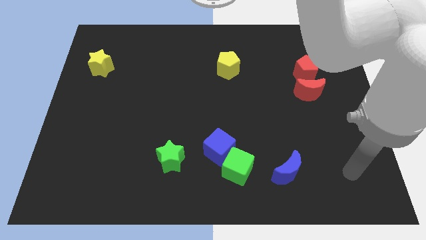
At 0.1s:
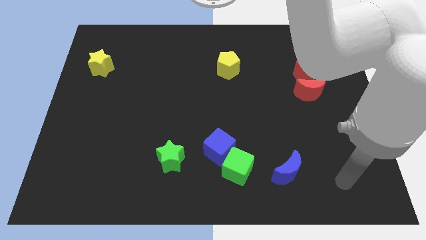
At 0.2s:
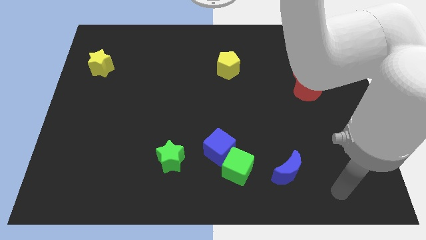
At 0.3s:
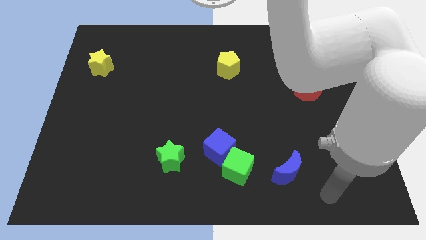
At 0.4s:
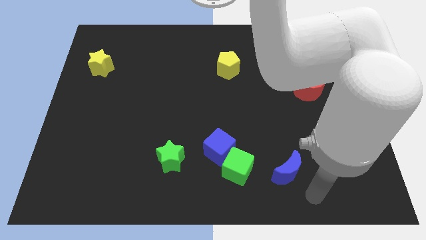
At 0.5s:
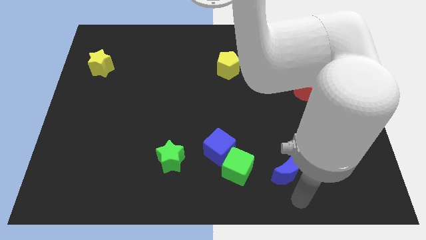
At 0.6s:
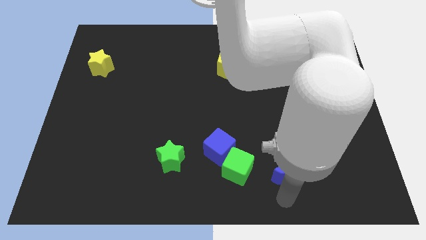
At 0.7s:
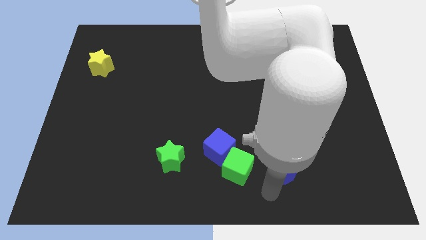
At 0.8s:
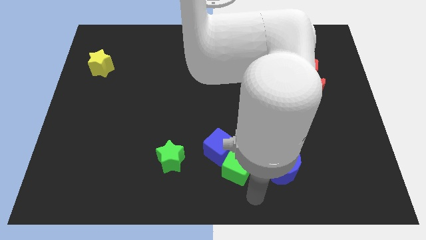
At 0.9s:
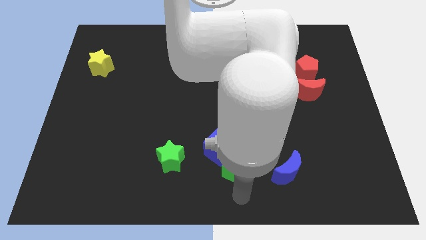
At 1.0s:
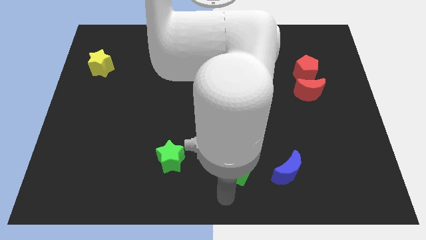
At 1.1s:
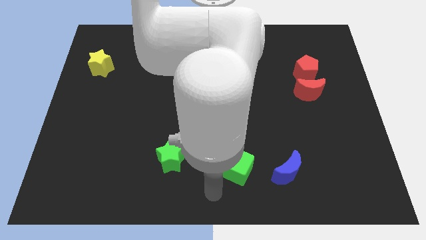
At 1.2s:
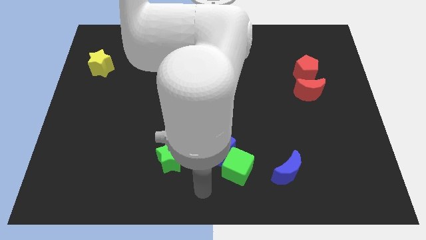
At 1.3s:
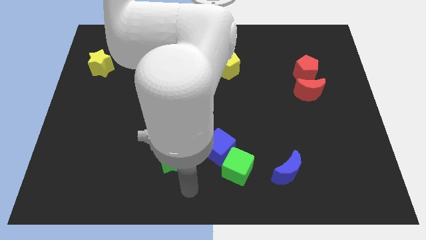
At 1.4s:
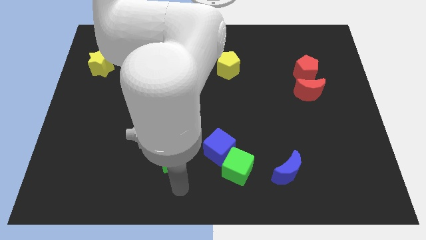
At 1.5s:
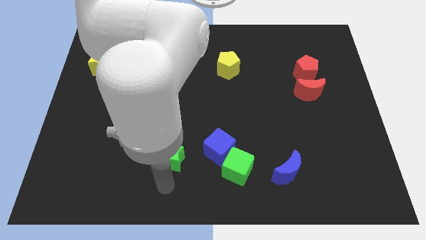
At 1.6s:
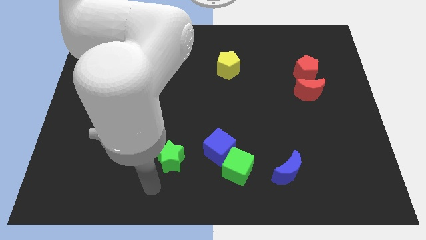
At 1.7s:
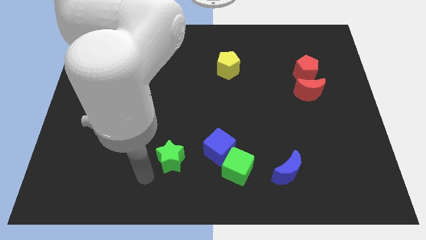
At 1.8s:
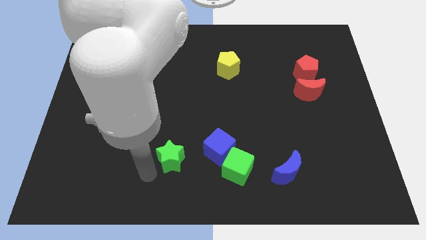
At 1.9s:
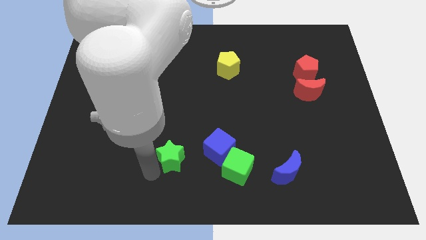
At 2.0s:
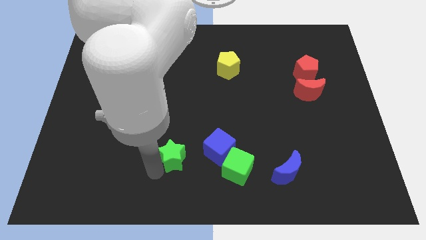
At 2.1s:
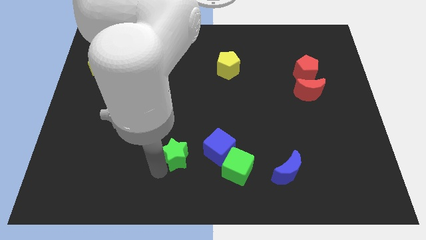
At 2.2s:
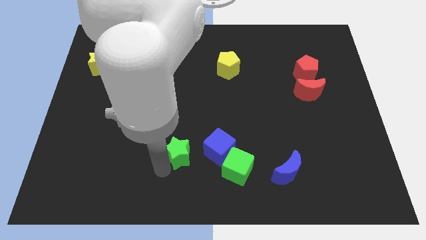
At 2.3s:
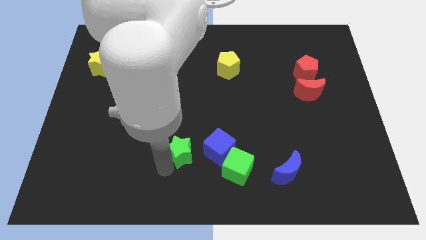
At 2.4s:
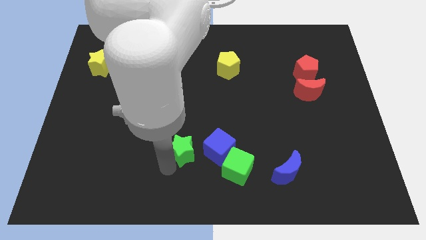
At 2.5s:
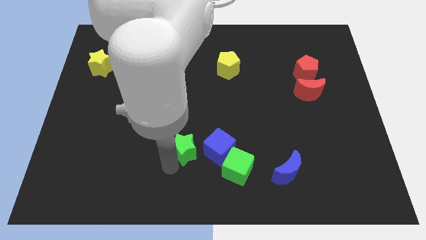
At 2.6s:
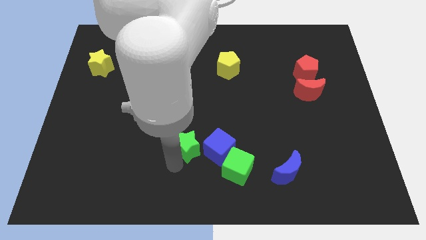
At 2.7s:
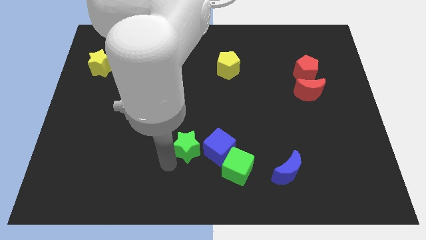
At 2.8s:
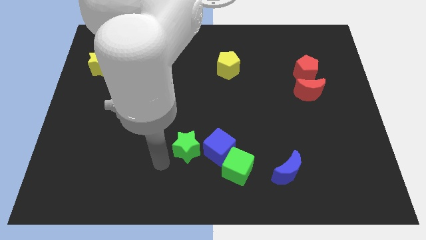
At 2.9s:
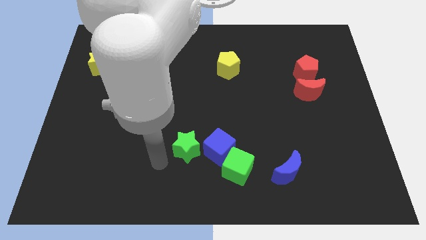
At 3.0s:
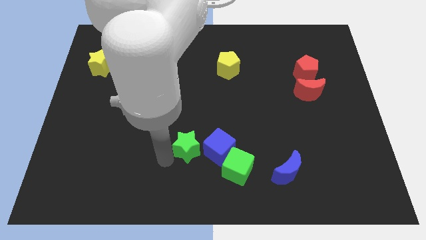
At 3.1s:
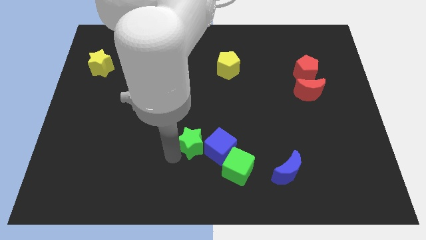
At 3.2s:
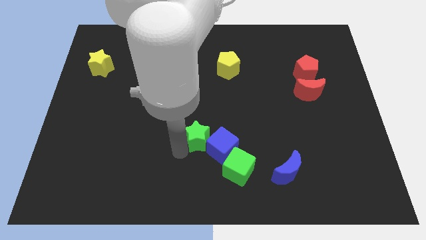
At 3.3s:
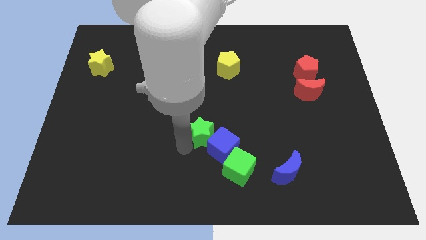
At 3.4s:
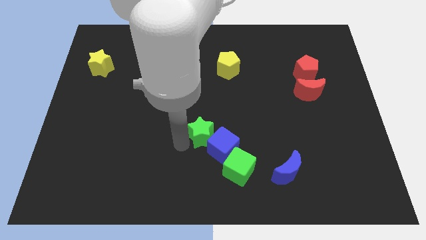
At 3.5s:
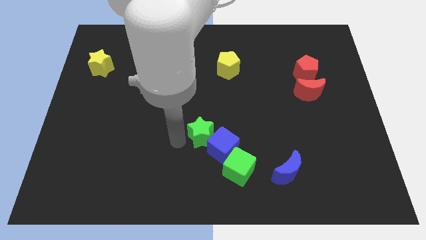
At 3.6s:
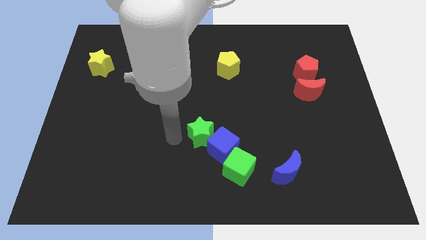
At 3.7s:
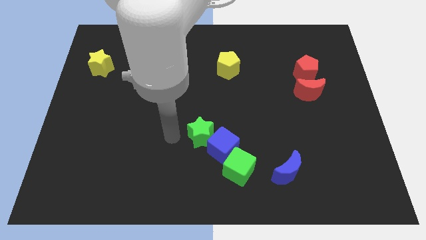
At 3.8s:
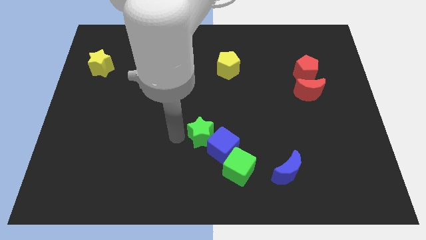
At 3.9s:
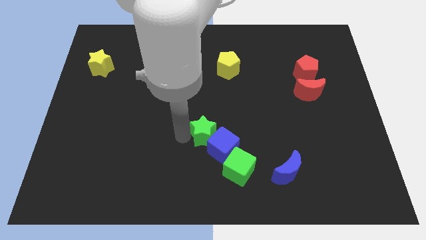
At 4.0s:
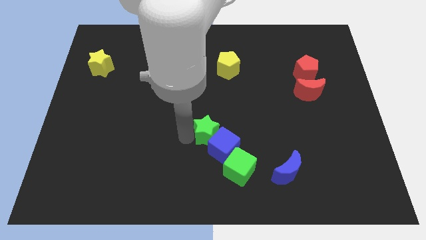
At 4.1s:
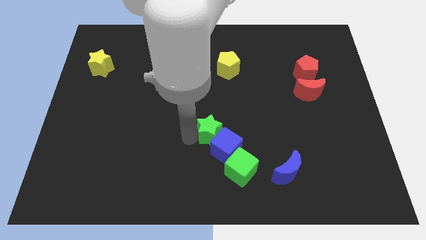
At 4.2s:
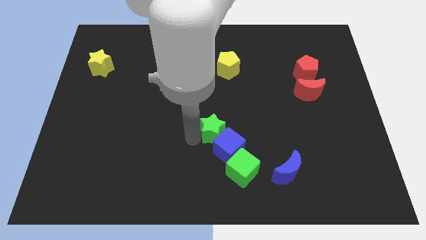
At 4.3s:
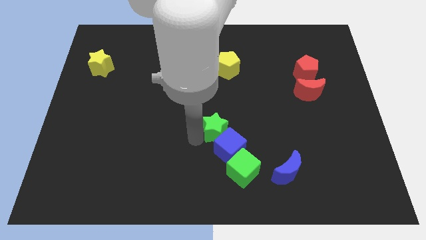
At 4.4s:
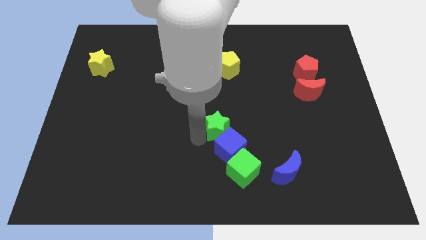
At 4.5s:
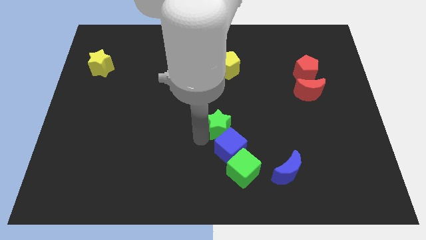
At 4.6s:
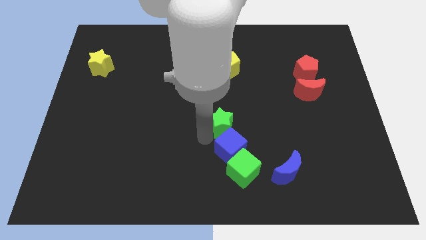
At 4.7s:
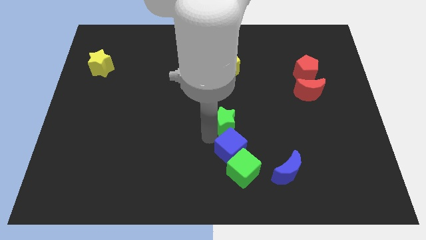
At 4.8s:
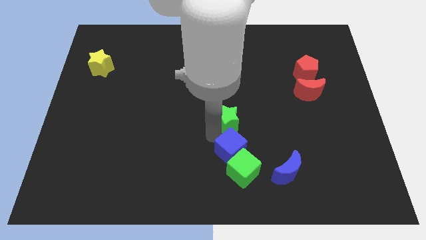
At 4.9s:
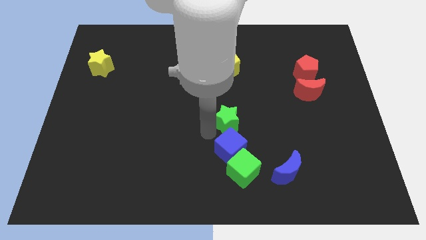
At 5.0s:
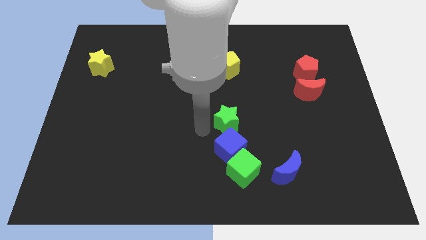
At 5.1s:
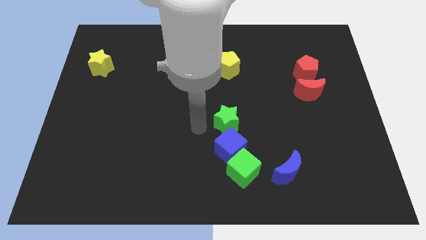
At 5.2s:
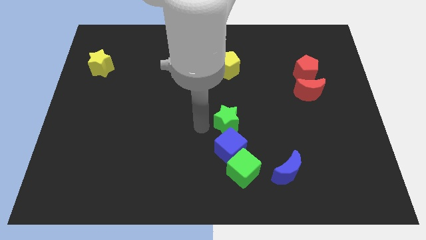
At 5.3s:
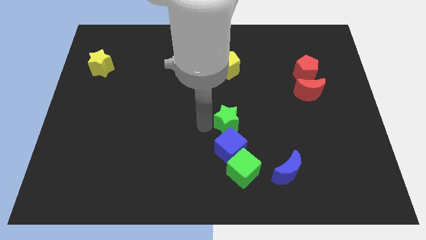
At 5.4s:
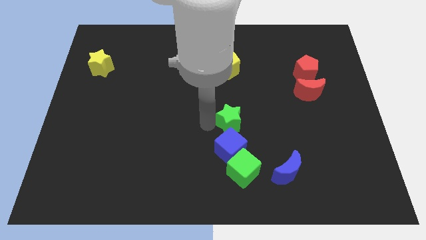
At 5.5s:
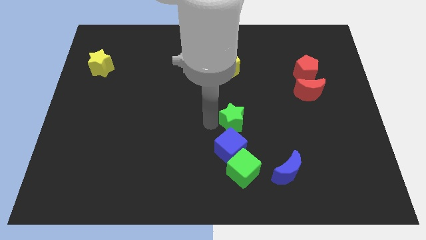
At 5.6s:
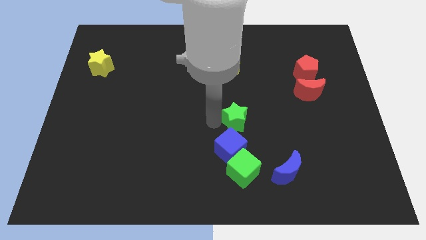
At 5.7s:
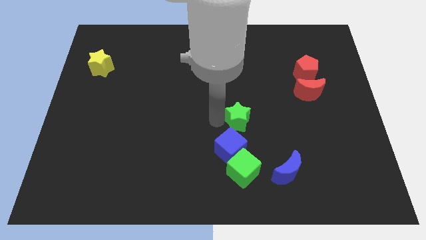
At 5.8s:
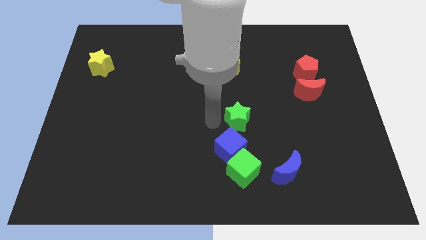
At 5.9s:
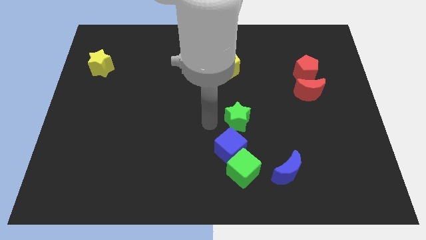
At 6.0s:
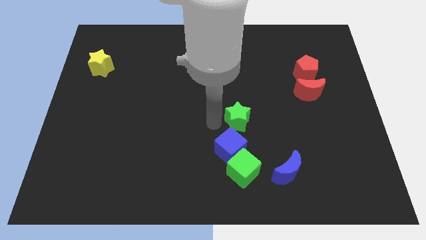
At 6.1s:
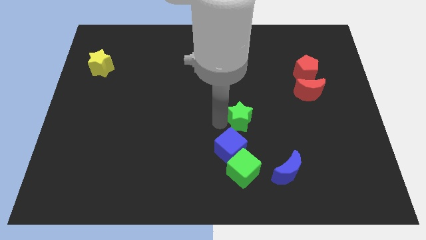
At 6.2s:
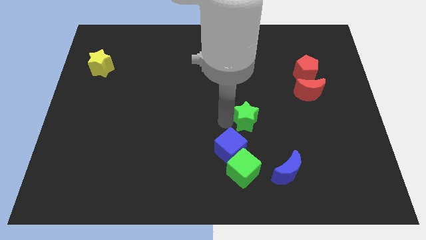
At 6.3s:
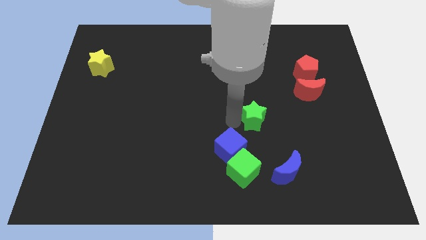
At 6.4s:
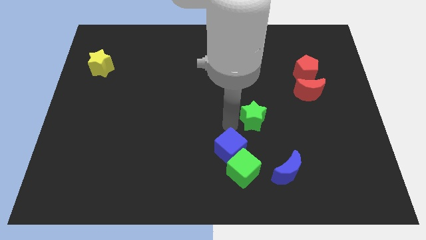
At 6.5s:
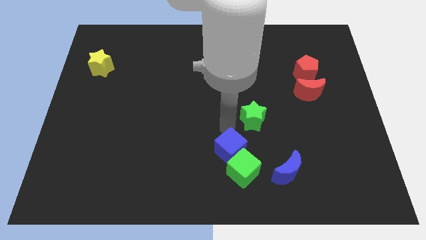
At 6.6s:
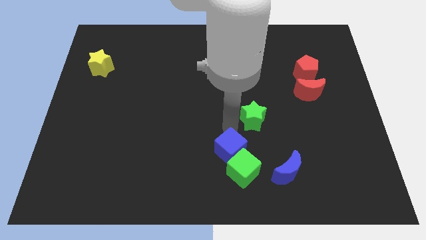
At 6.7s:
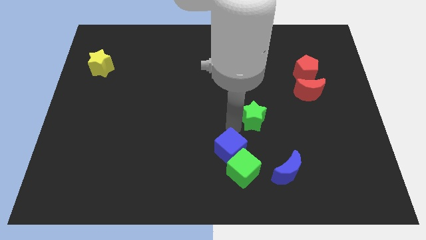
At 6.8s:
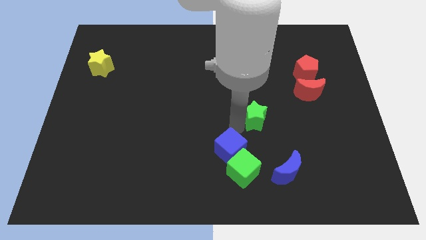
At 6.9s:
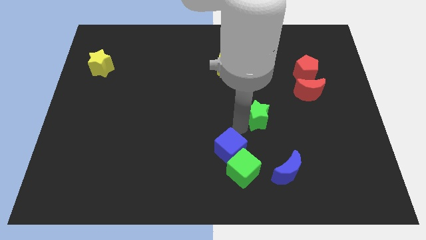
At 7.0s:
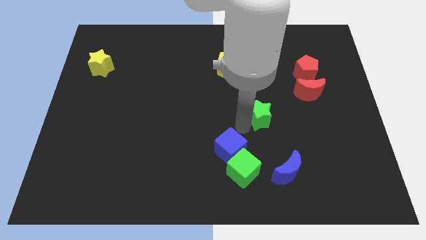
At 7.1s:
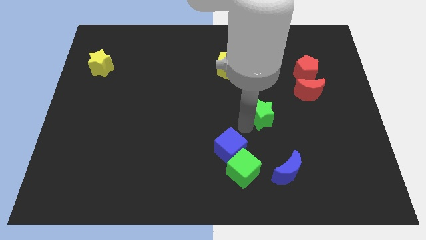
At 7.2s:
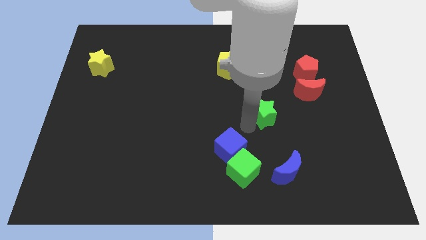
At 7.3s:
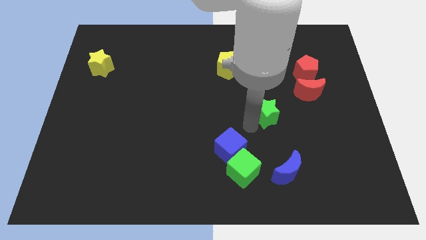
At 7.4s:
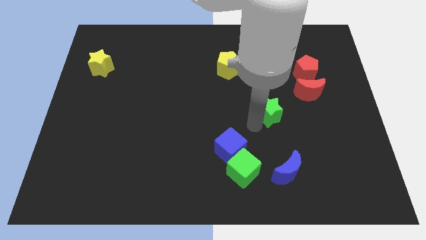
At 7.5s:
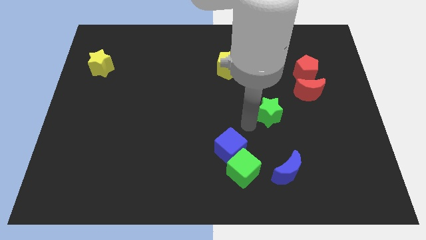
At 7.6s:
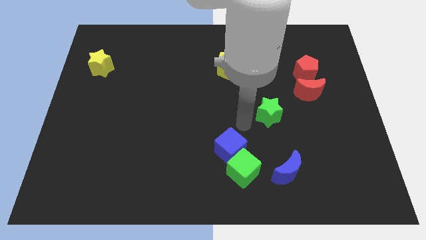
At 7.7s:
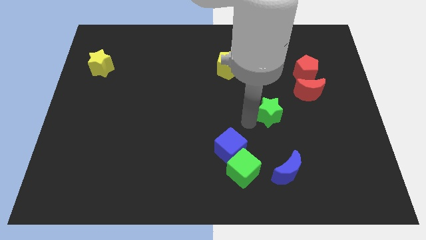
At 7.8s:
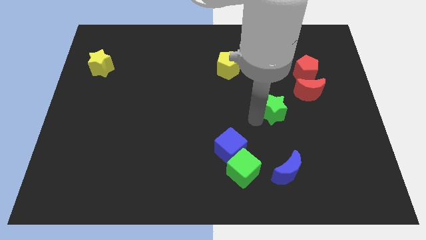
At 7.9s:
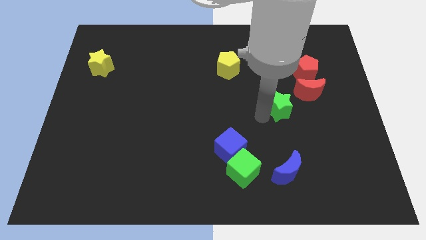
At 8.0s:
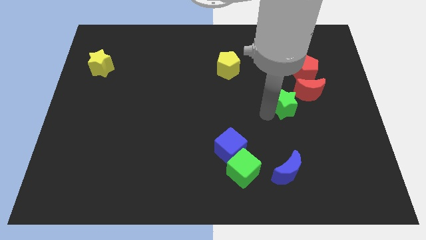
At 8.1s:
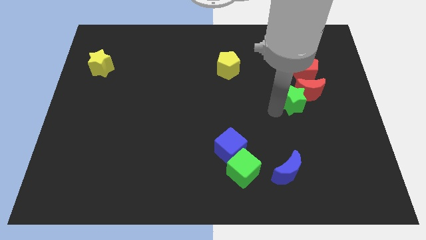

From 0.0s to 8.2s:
slide the green star close to the red moon
